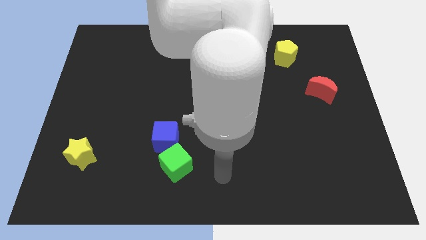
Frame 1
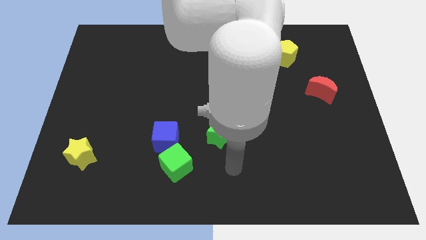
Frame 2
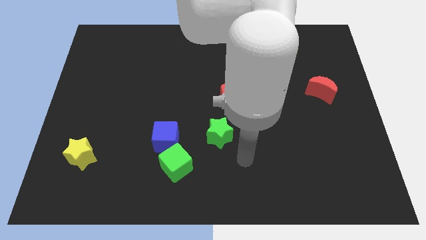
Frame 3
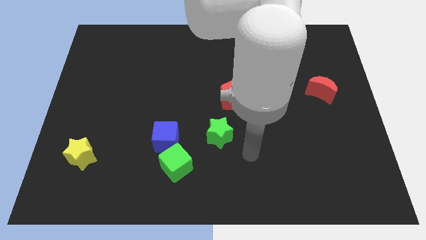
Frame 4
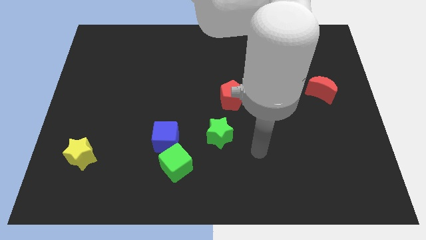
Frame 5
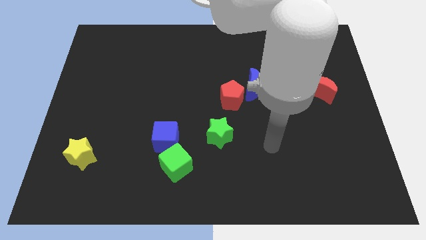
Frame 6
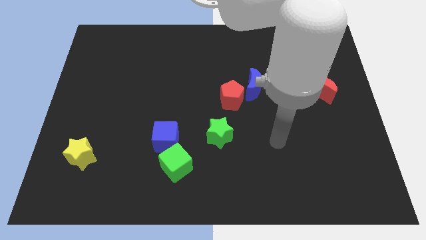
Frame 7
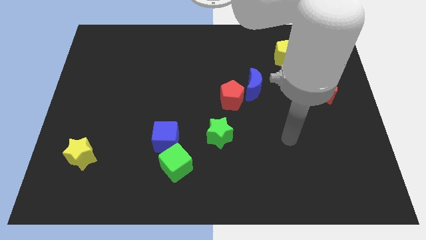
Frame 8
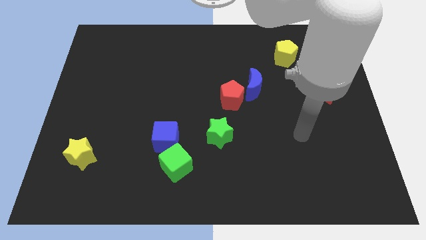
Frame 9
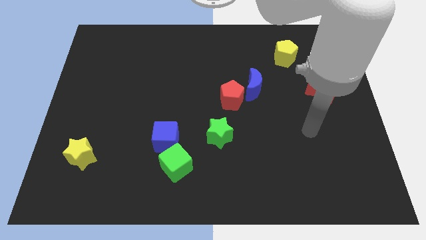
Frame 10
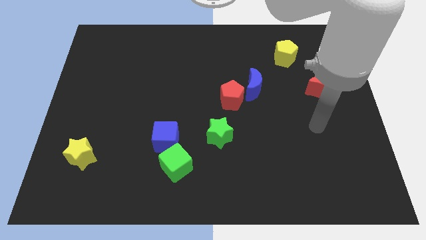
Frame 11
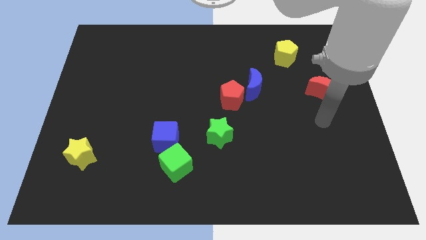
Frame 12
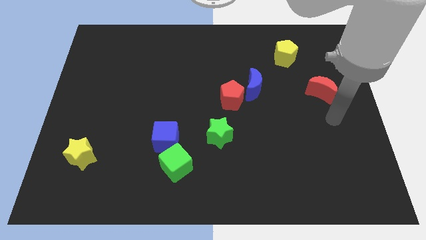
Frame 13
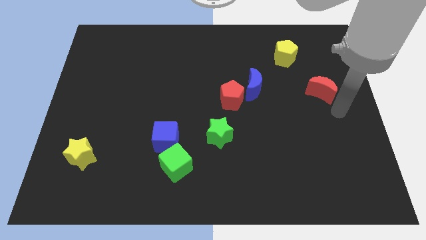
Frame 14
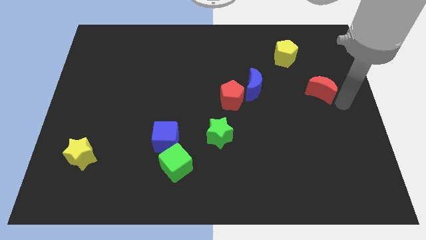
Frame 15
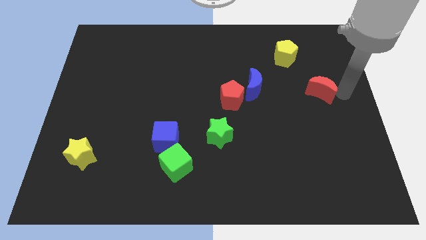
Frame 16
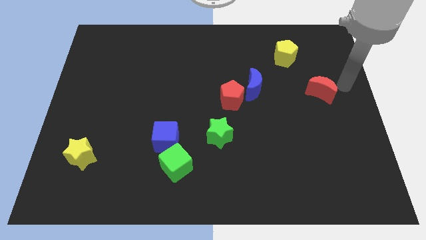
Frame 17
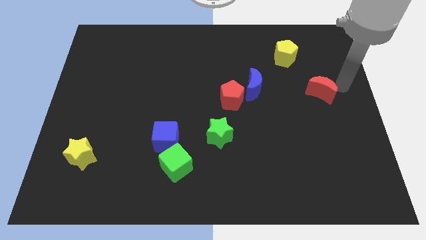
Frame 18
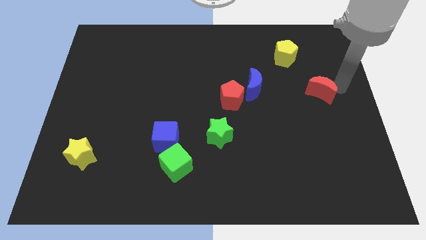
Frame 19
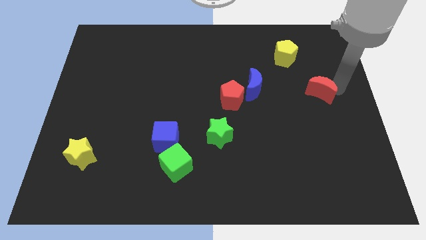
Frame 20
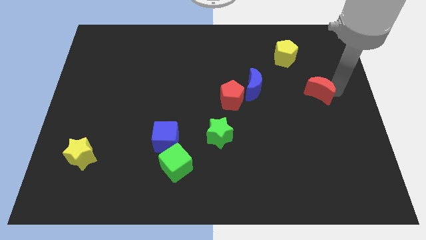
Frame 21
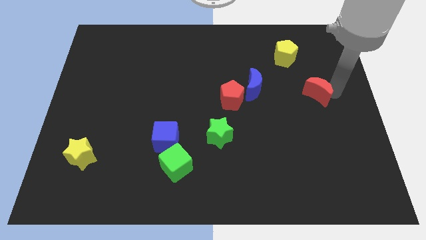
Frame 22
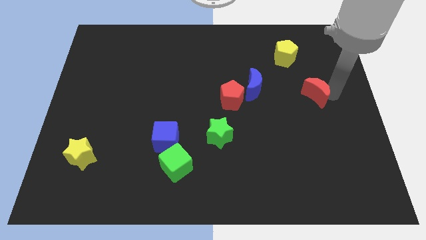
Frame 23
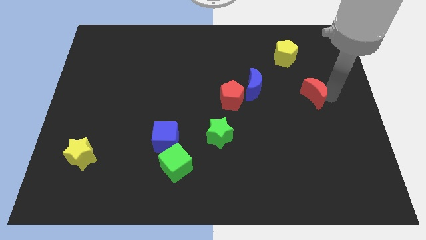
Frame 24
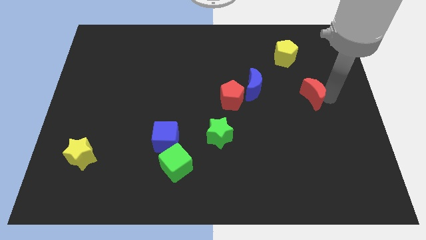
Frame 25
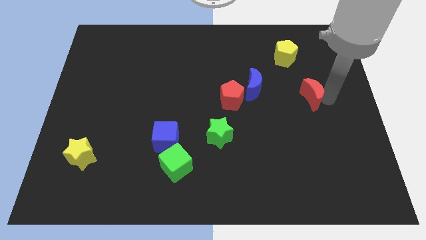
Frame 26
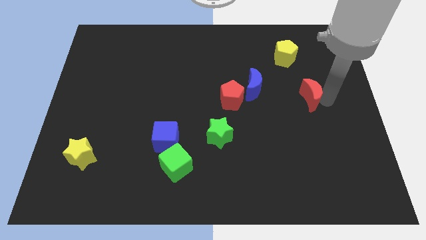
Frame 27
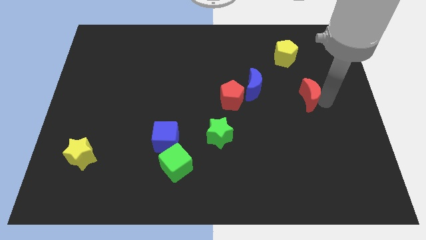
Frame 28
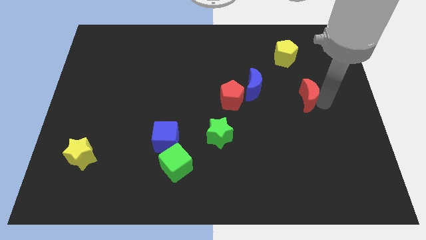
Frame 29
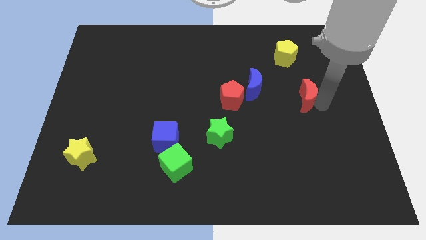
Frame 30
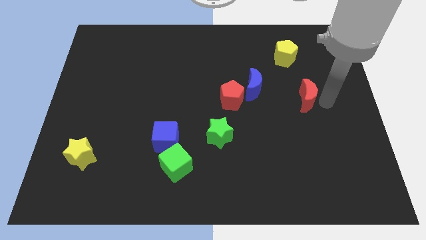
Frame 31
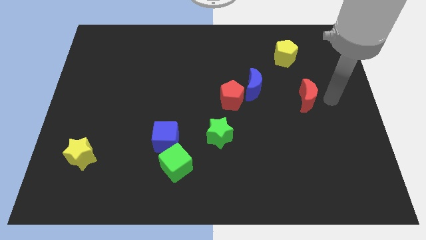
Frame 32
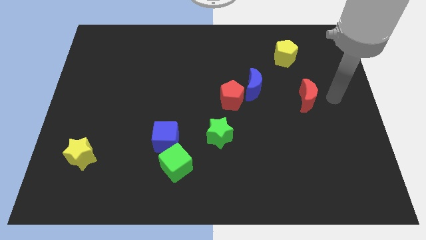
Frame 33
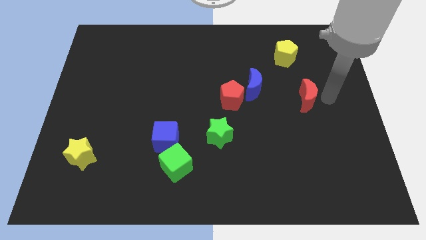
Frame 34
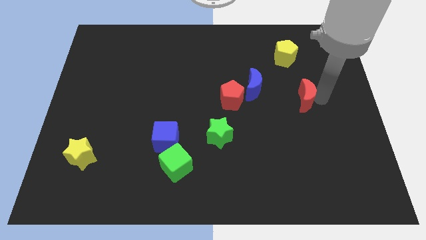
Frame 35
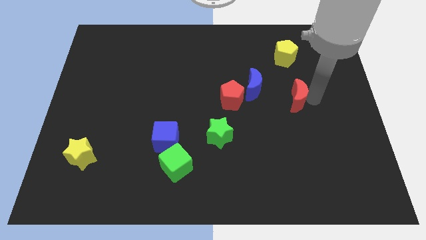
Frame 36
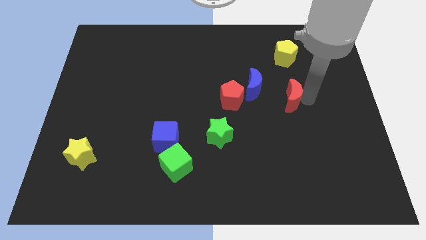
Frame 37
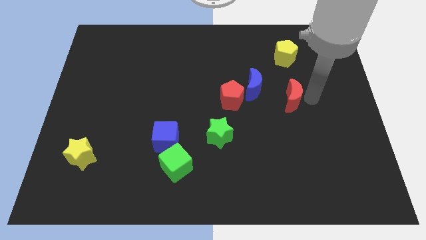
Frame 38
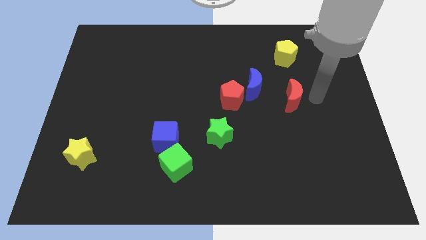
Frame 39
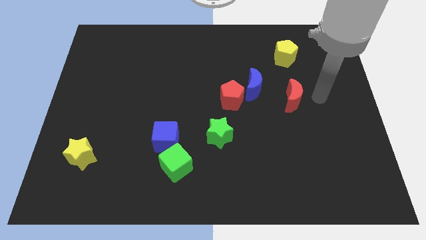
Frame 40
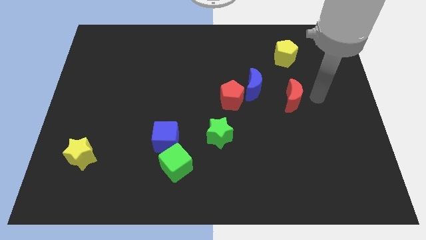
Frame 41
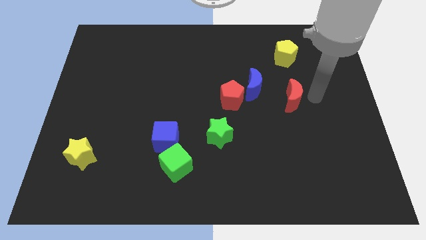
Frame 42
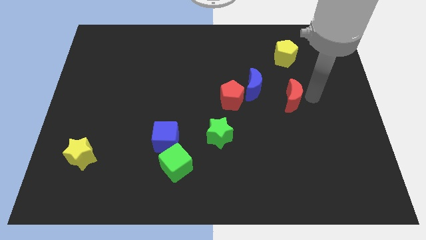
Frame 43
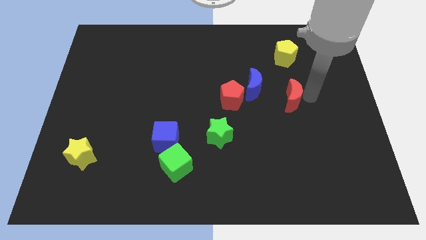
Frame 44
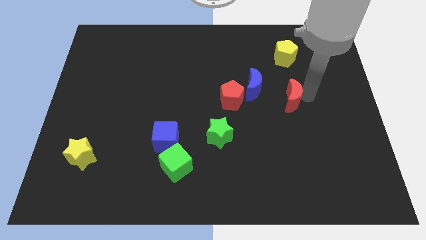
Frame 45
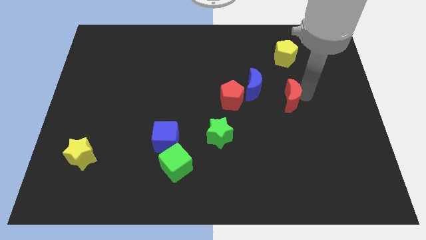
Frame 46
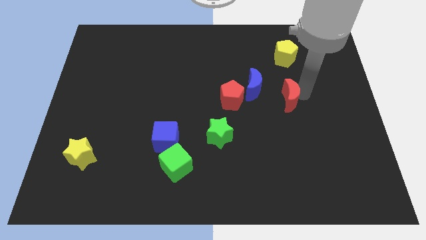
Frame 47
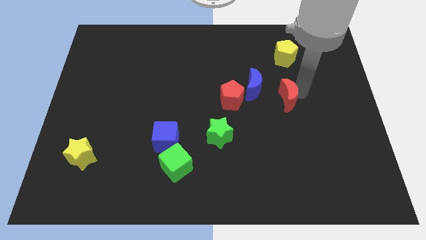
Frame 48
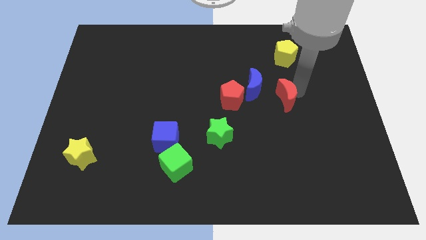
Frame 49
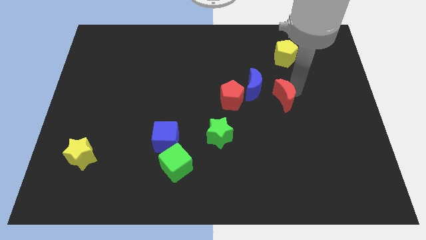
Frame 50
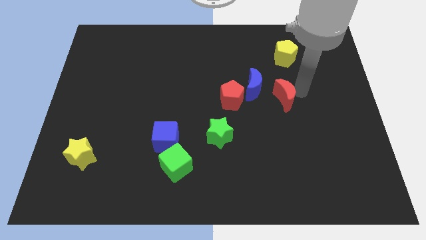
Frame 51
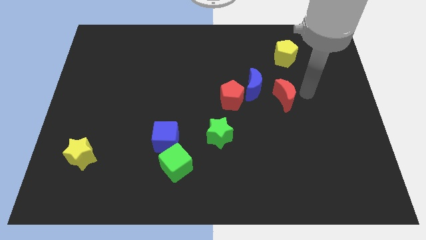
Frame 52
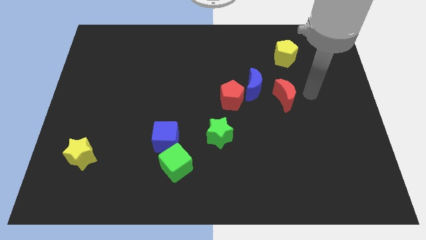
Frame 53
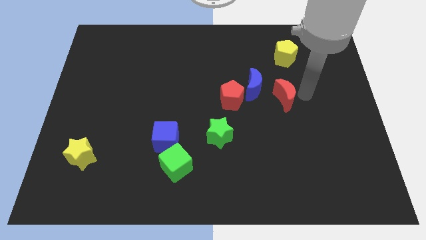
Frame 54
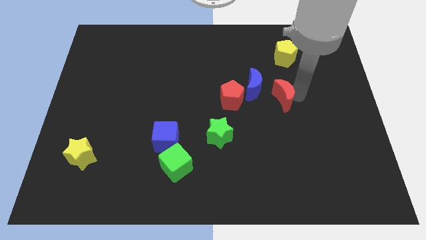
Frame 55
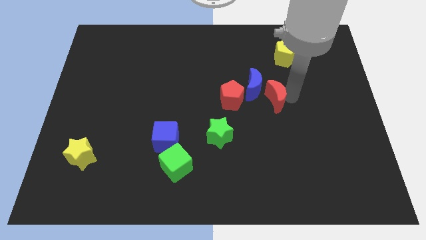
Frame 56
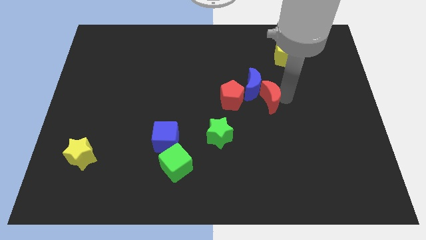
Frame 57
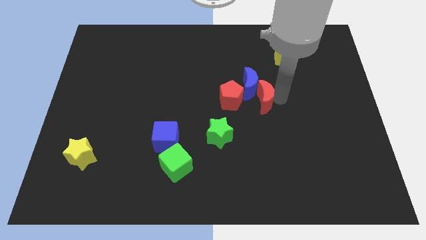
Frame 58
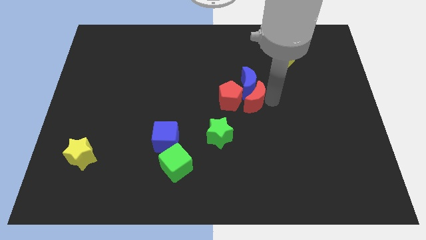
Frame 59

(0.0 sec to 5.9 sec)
move the red moon towards the red pentagon
